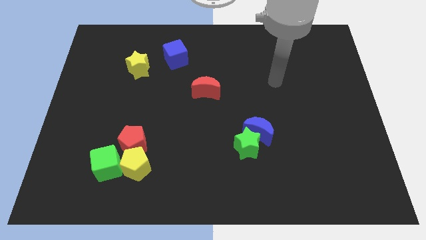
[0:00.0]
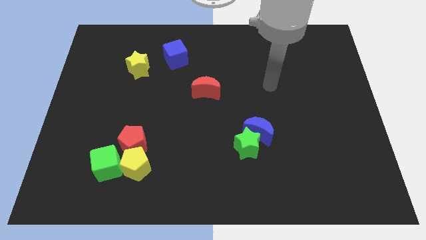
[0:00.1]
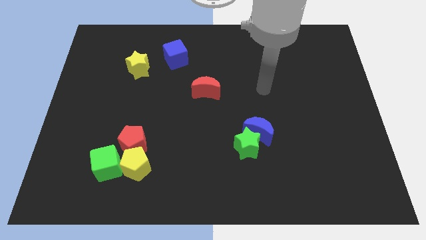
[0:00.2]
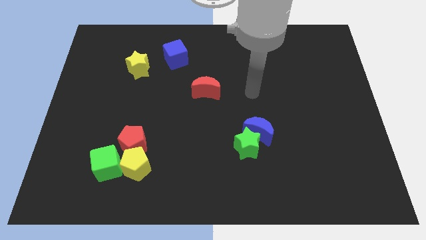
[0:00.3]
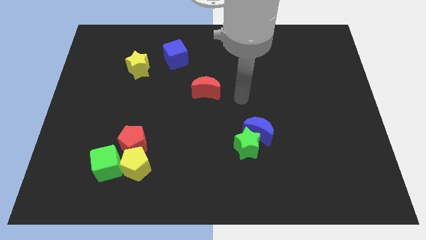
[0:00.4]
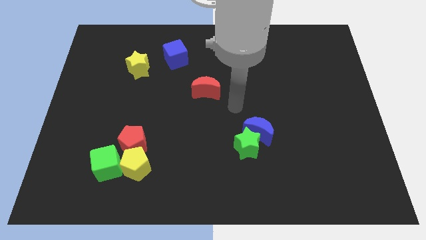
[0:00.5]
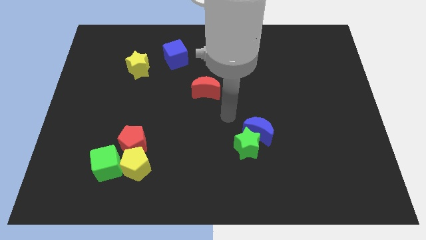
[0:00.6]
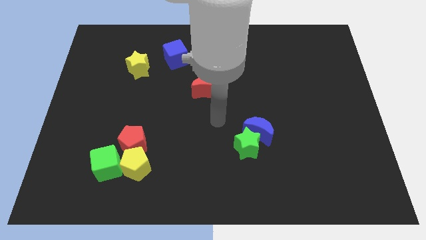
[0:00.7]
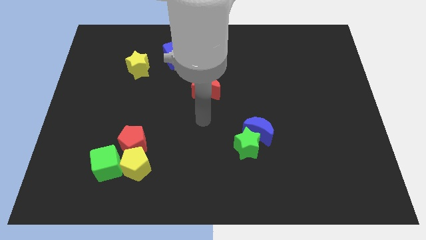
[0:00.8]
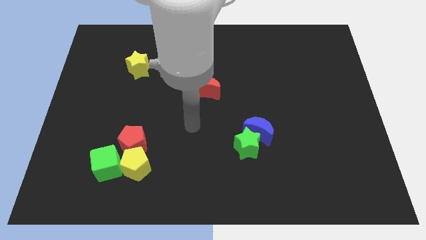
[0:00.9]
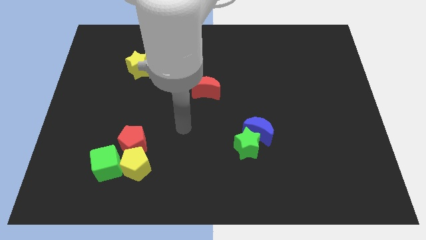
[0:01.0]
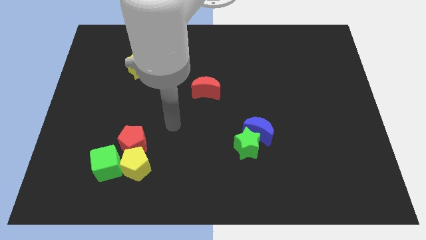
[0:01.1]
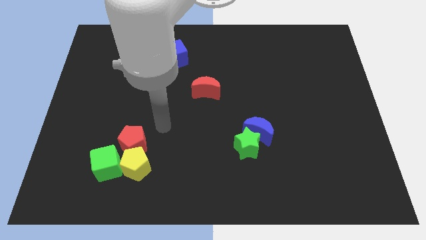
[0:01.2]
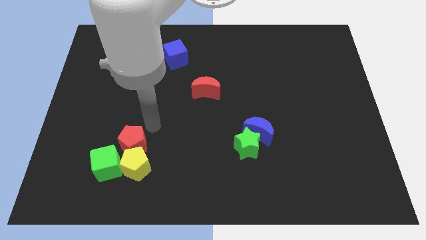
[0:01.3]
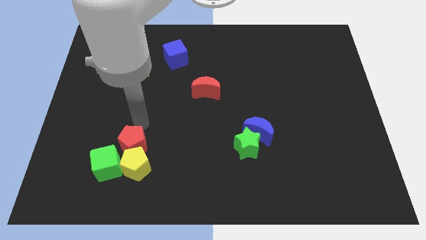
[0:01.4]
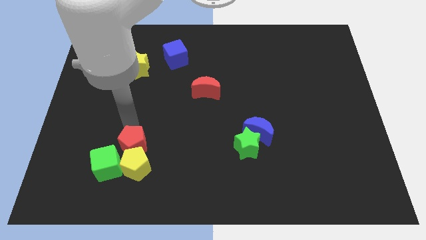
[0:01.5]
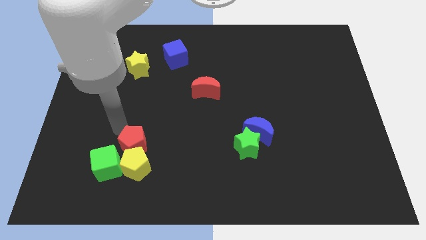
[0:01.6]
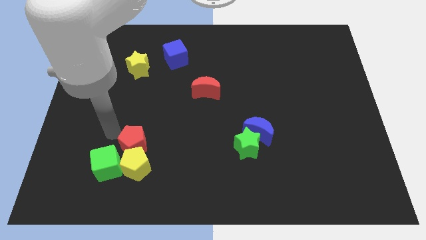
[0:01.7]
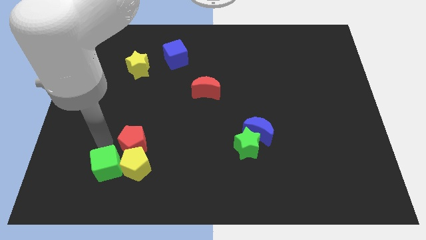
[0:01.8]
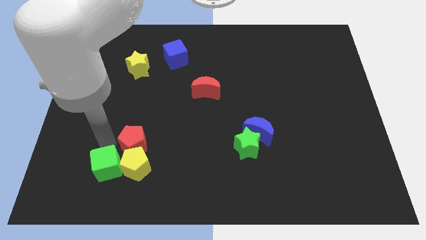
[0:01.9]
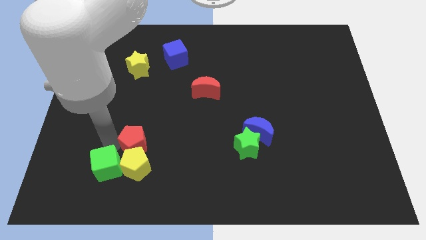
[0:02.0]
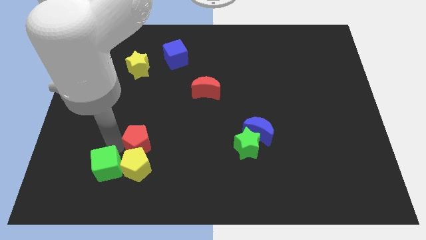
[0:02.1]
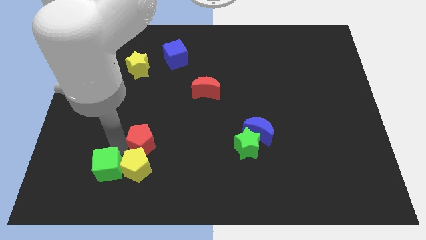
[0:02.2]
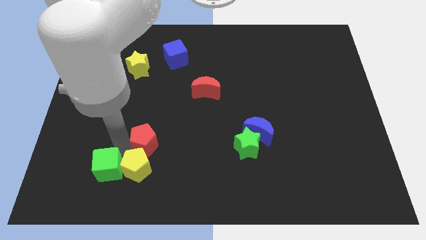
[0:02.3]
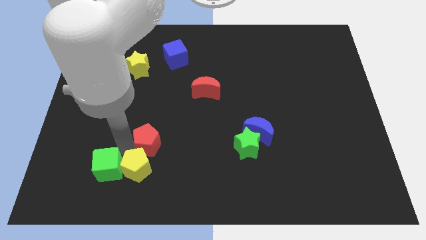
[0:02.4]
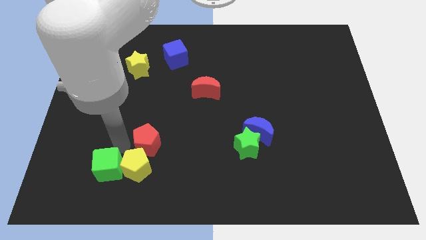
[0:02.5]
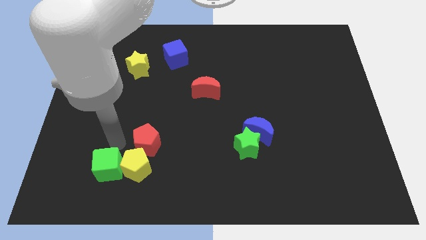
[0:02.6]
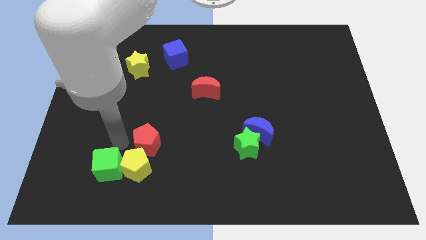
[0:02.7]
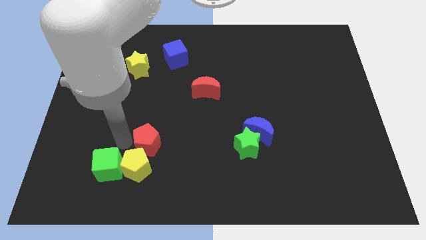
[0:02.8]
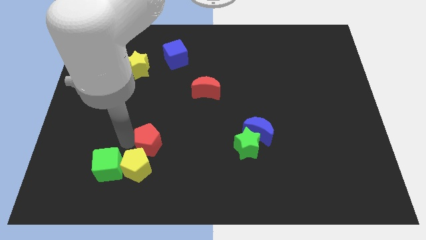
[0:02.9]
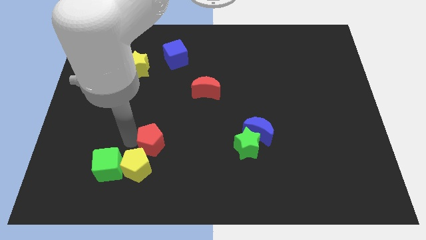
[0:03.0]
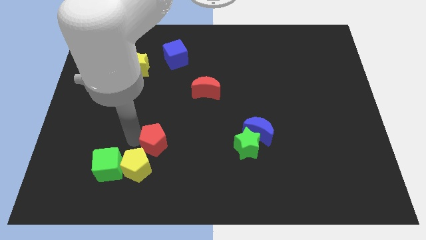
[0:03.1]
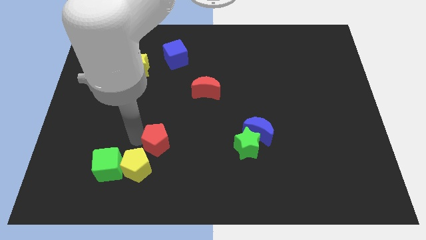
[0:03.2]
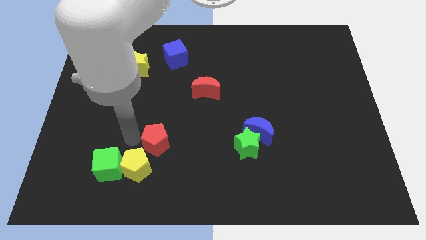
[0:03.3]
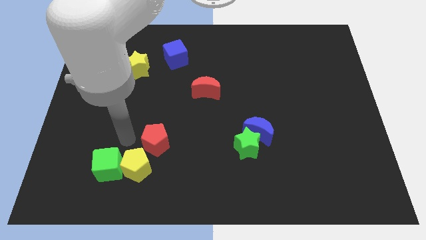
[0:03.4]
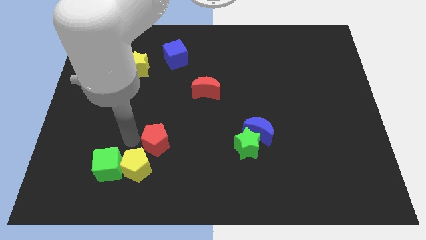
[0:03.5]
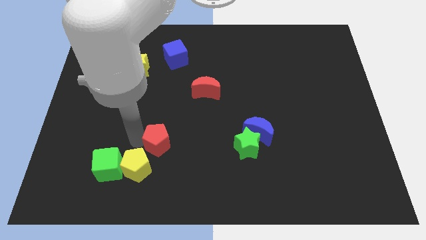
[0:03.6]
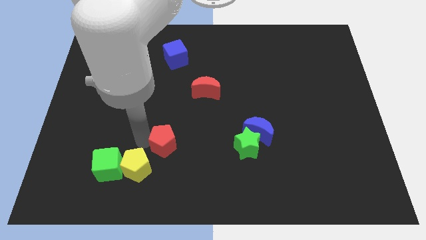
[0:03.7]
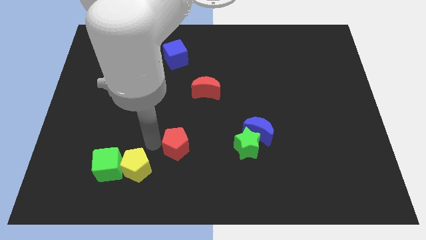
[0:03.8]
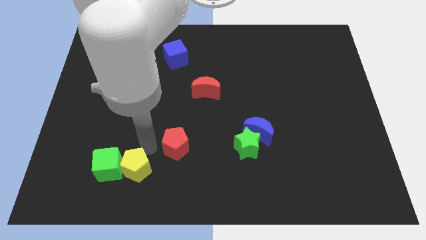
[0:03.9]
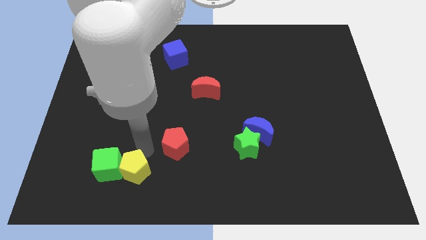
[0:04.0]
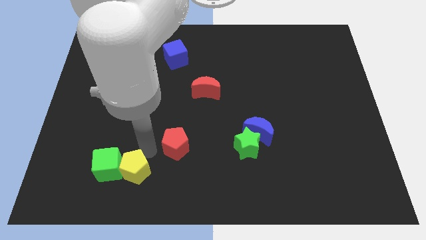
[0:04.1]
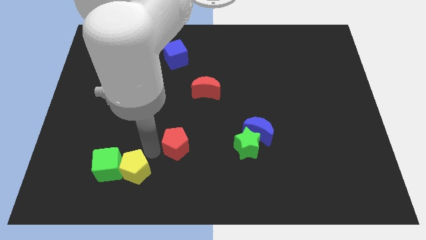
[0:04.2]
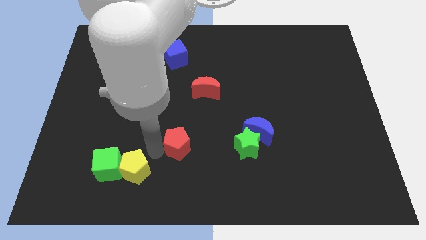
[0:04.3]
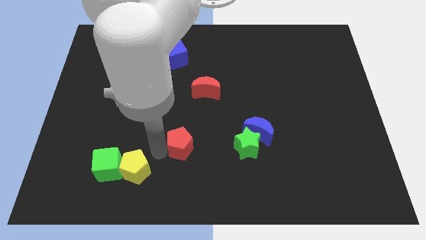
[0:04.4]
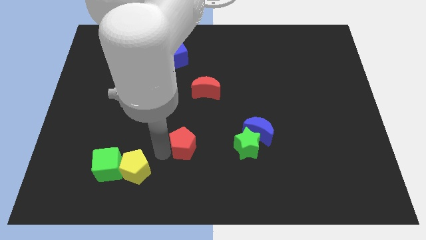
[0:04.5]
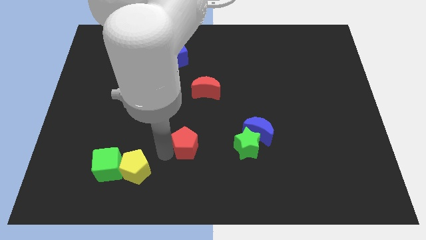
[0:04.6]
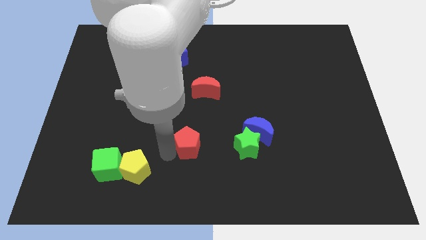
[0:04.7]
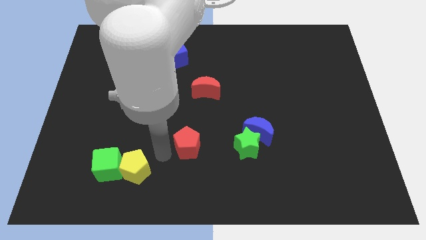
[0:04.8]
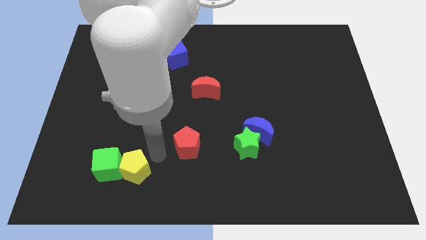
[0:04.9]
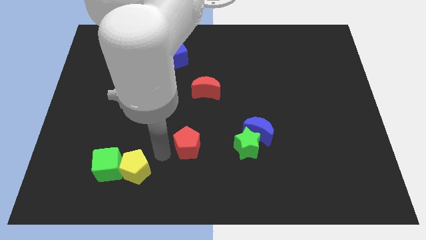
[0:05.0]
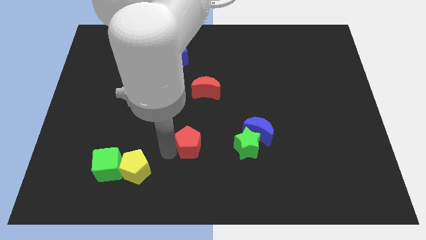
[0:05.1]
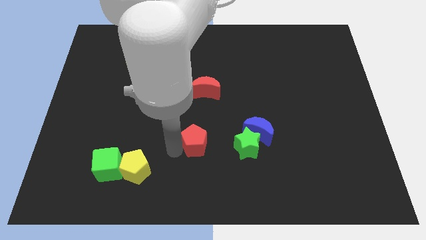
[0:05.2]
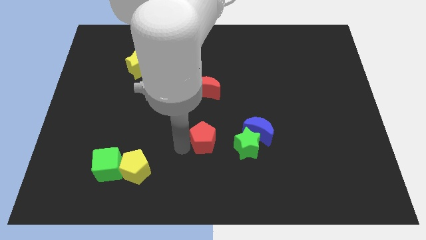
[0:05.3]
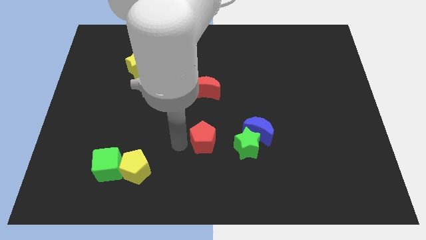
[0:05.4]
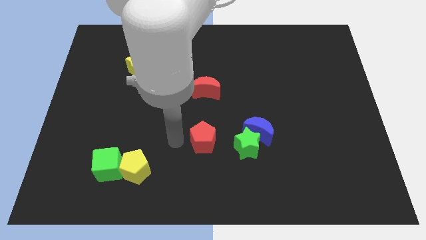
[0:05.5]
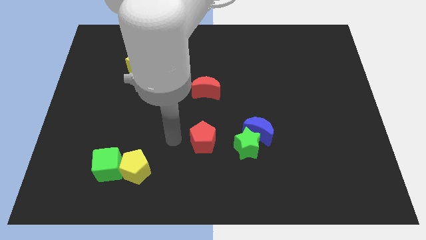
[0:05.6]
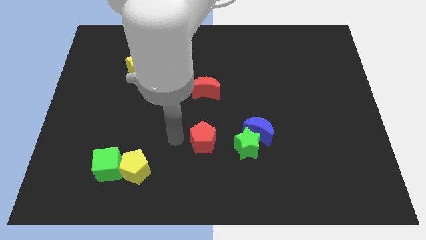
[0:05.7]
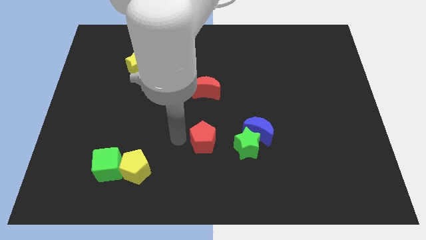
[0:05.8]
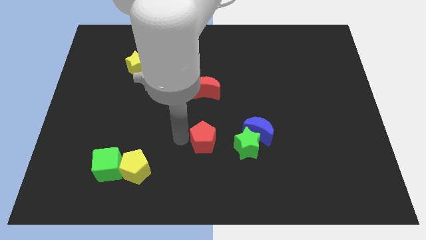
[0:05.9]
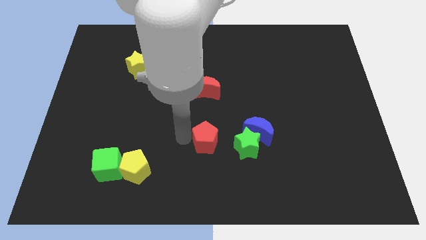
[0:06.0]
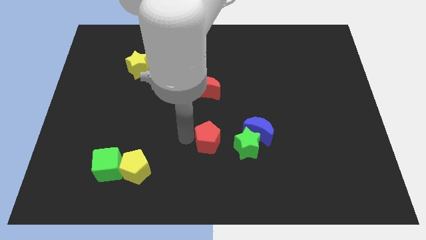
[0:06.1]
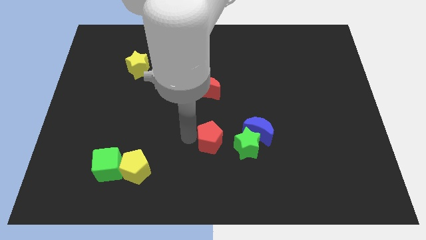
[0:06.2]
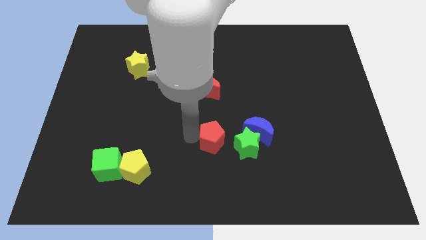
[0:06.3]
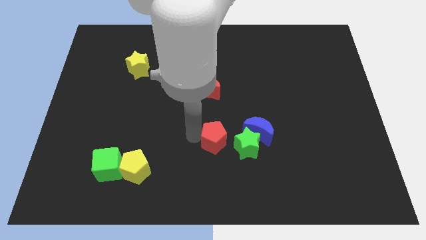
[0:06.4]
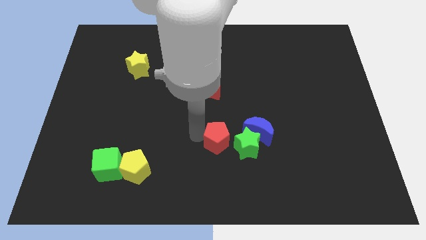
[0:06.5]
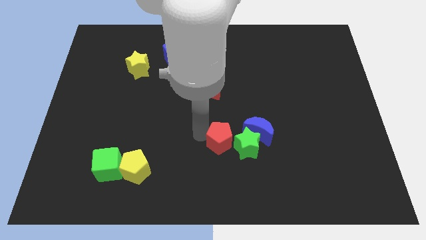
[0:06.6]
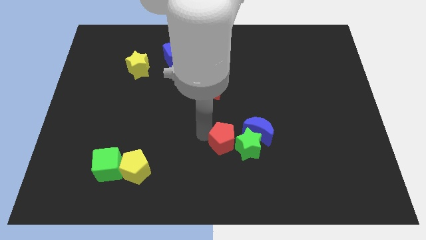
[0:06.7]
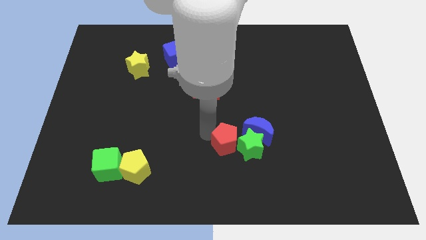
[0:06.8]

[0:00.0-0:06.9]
slide the red pentagon right

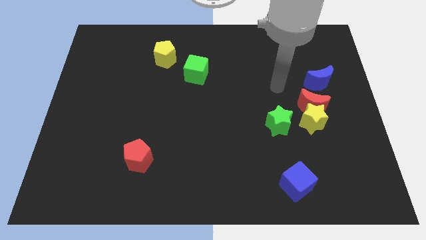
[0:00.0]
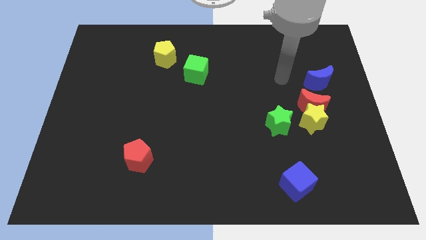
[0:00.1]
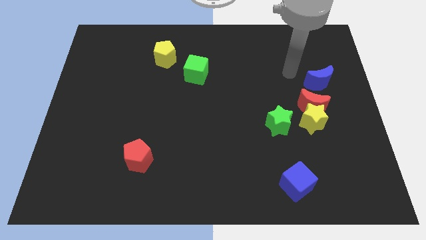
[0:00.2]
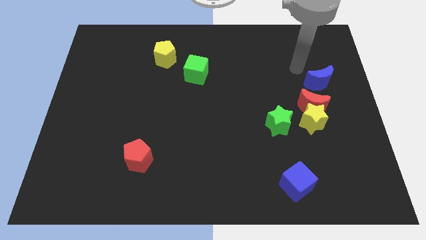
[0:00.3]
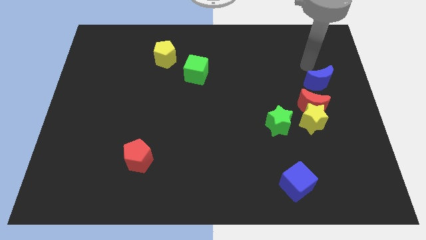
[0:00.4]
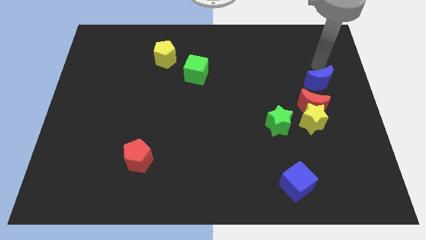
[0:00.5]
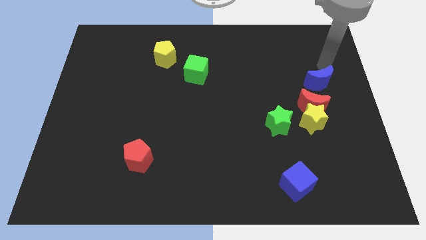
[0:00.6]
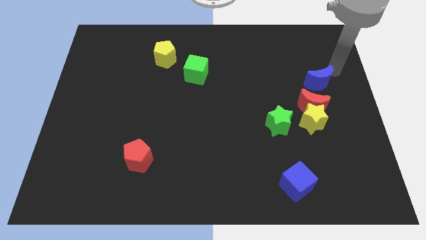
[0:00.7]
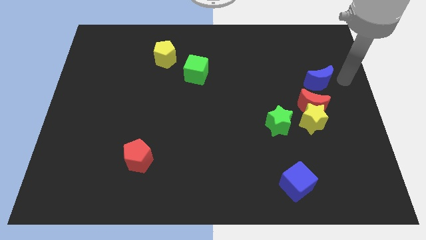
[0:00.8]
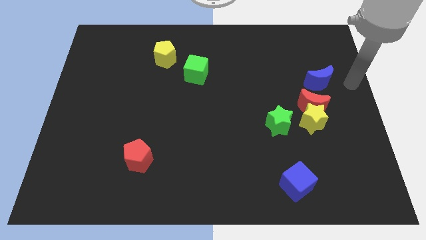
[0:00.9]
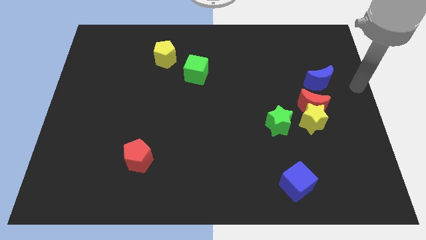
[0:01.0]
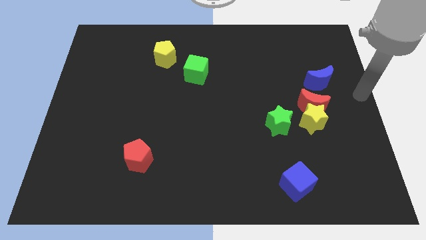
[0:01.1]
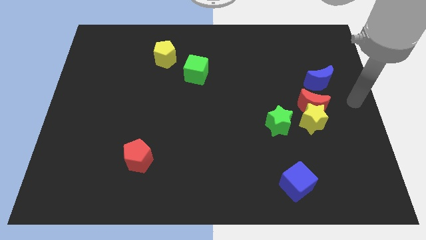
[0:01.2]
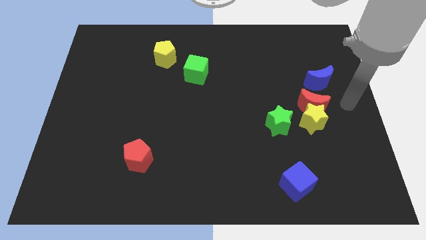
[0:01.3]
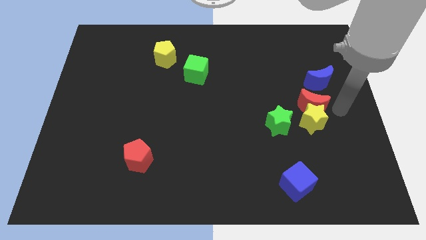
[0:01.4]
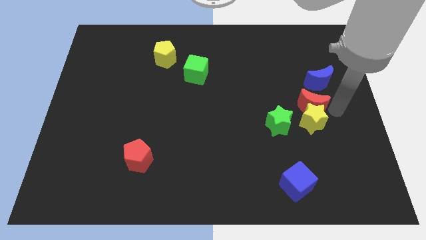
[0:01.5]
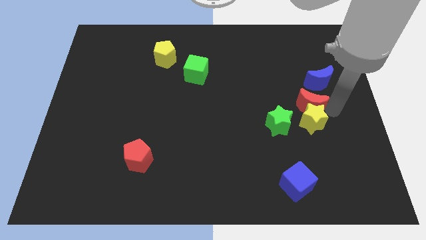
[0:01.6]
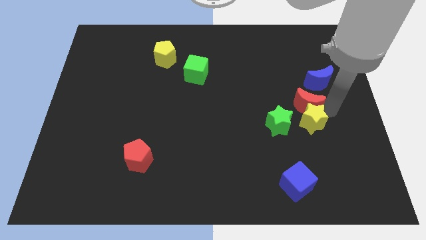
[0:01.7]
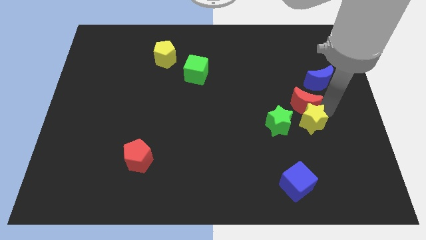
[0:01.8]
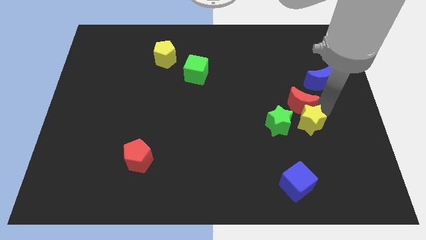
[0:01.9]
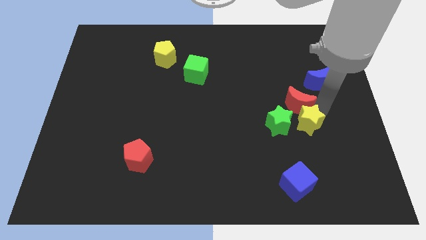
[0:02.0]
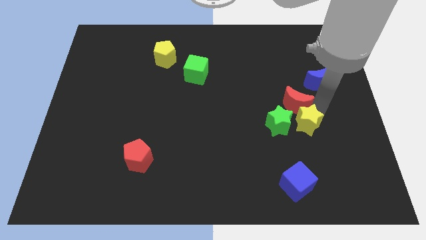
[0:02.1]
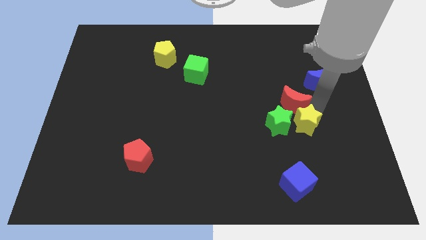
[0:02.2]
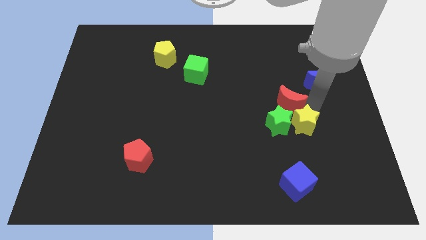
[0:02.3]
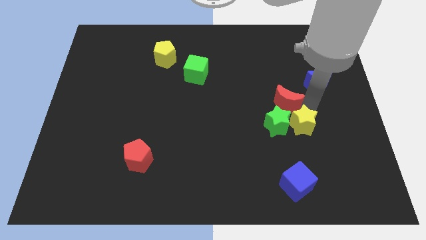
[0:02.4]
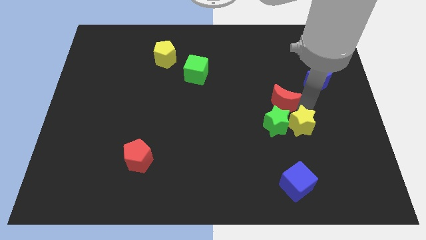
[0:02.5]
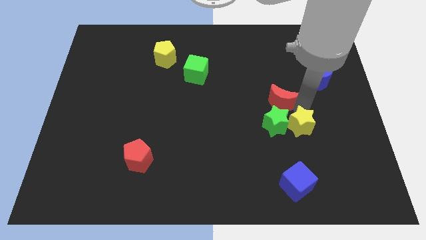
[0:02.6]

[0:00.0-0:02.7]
push the red moon to the left a little
